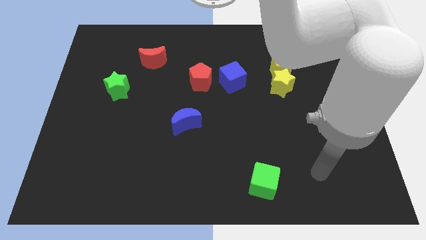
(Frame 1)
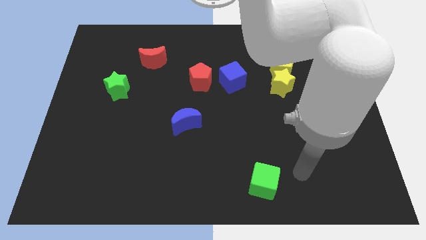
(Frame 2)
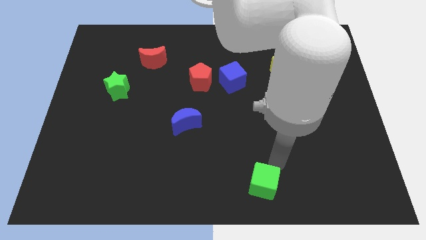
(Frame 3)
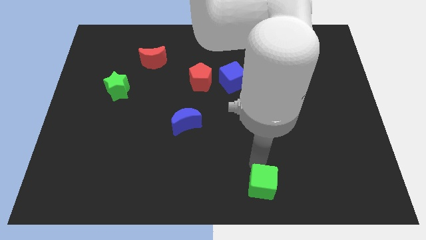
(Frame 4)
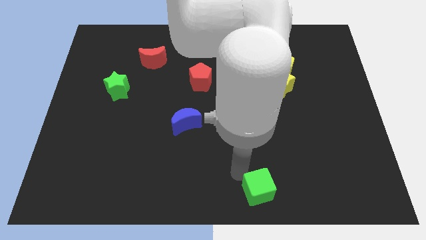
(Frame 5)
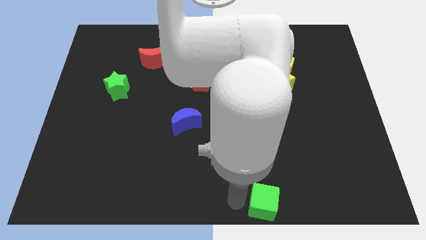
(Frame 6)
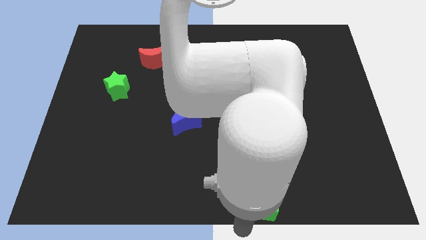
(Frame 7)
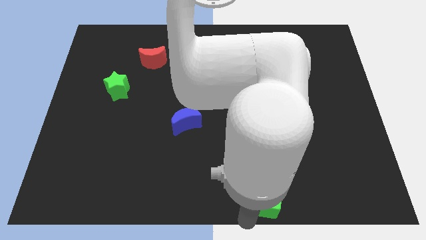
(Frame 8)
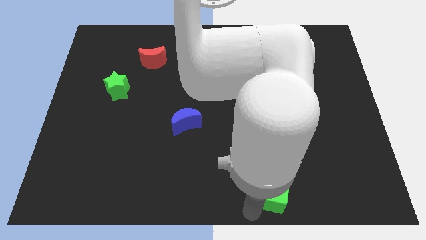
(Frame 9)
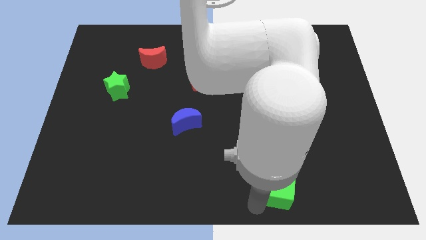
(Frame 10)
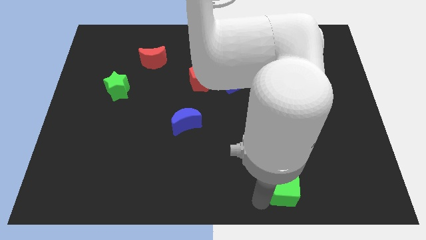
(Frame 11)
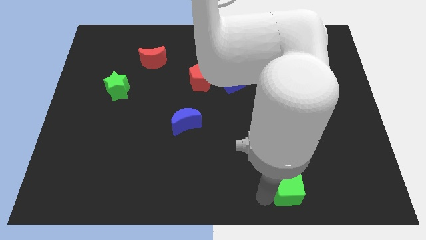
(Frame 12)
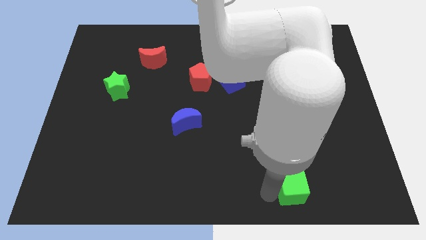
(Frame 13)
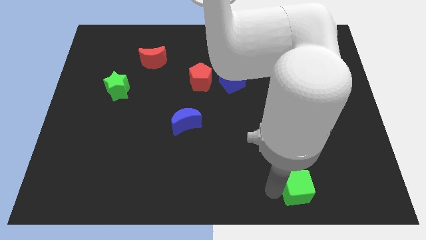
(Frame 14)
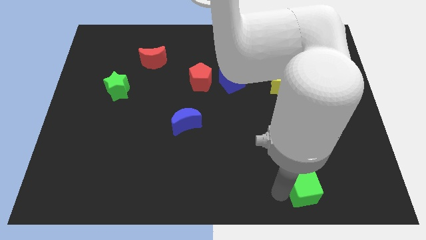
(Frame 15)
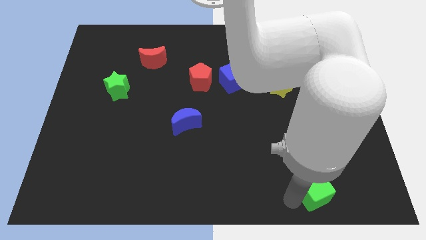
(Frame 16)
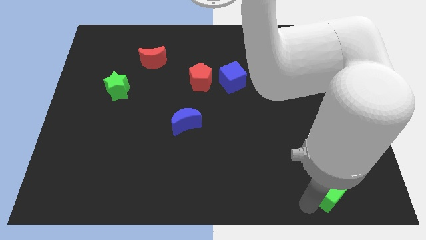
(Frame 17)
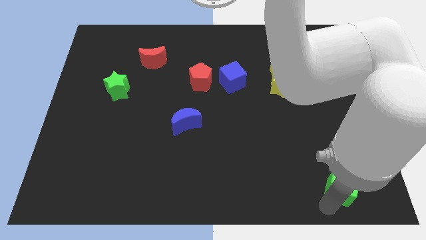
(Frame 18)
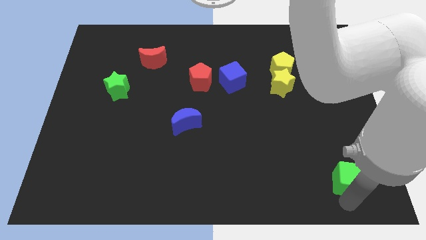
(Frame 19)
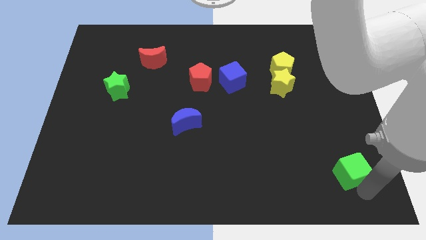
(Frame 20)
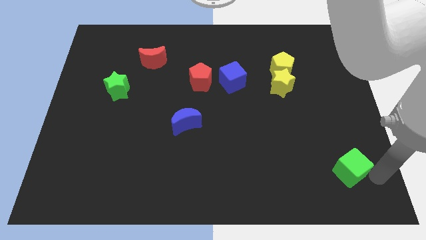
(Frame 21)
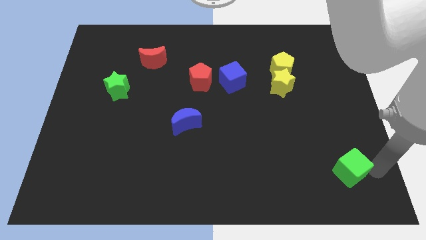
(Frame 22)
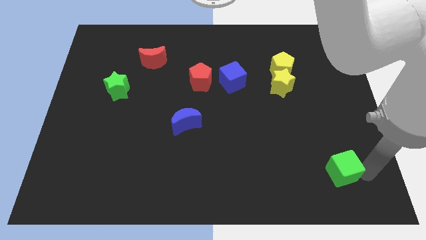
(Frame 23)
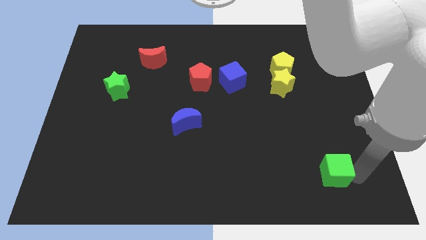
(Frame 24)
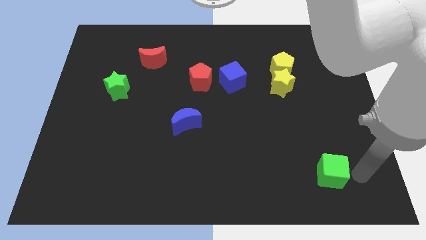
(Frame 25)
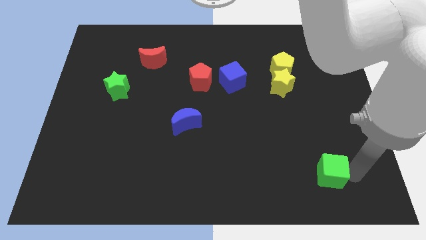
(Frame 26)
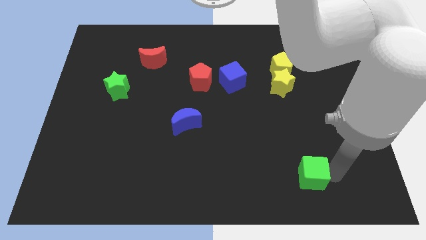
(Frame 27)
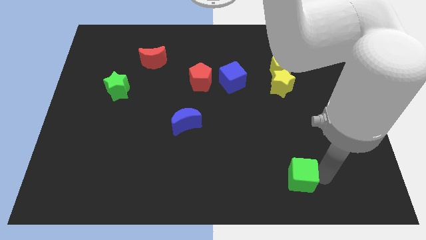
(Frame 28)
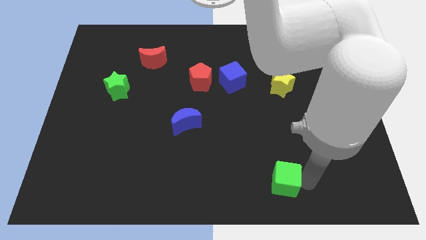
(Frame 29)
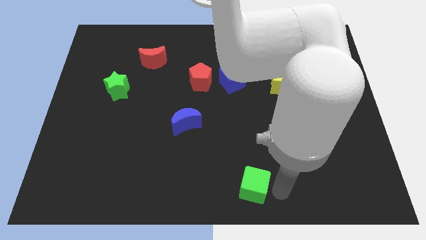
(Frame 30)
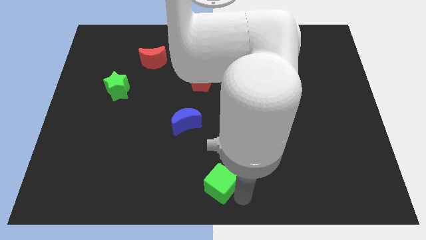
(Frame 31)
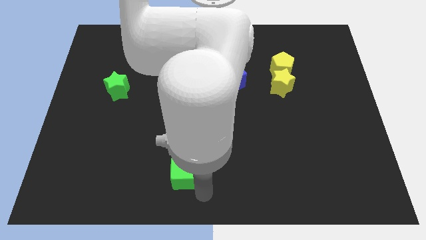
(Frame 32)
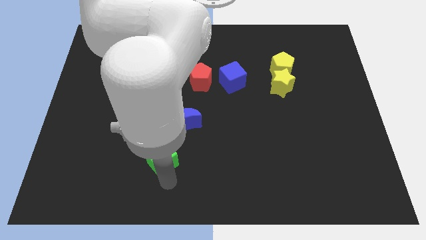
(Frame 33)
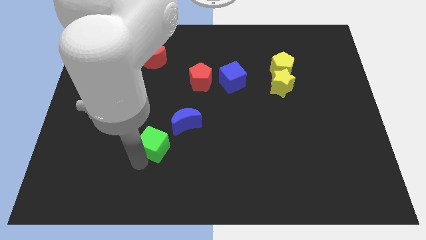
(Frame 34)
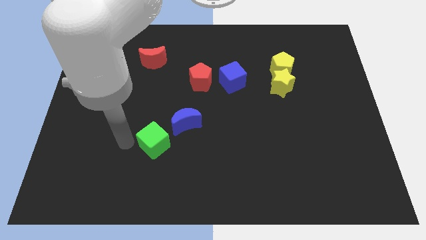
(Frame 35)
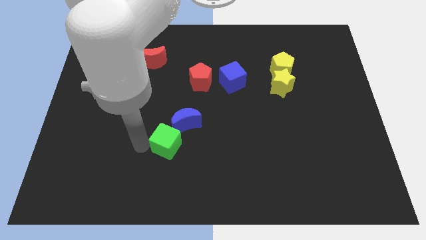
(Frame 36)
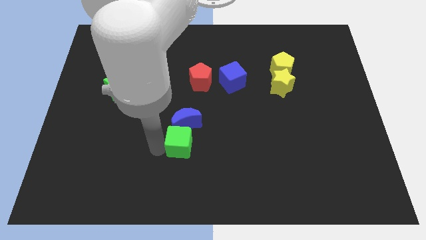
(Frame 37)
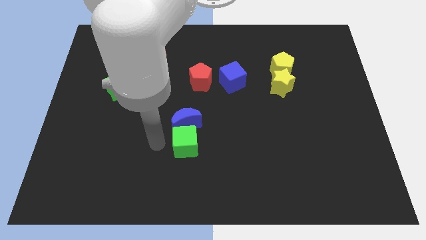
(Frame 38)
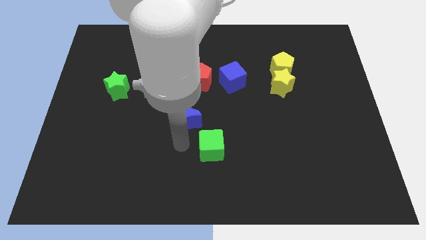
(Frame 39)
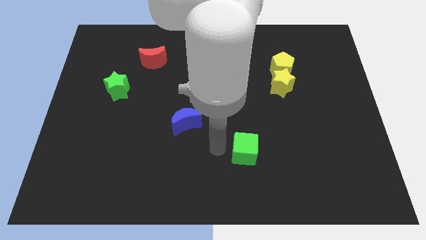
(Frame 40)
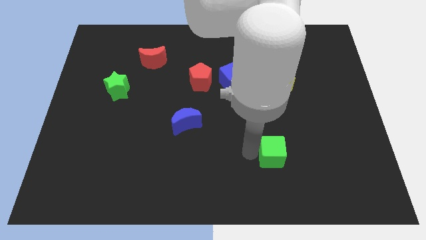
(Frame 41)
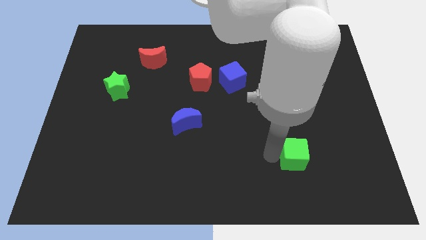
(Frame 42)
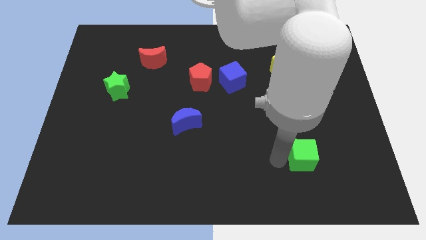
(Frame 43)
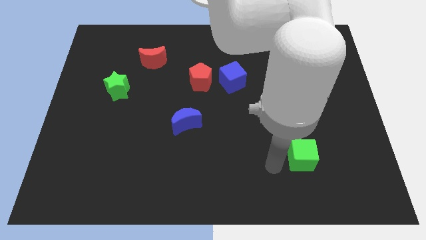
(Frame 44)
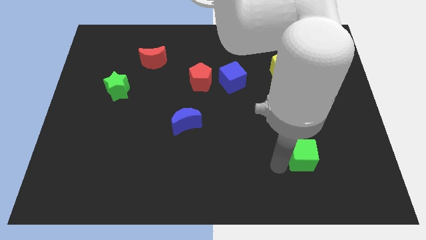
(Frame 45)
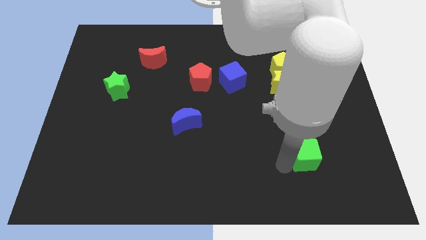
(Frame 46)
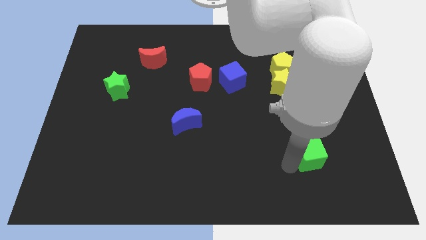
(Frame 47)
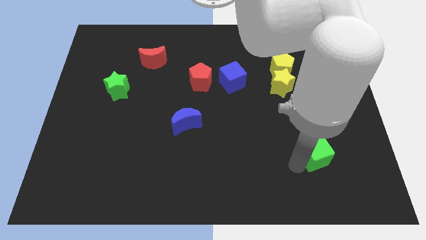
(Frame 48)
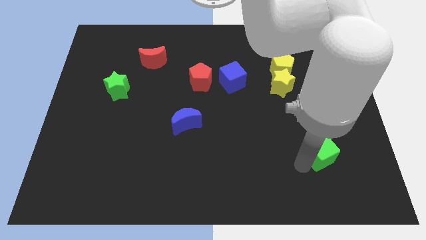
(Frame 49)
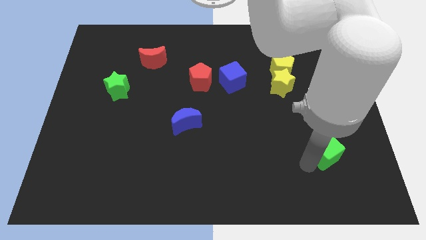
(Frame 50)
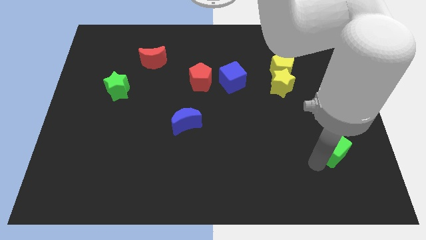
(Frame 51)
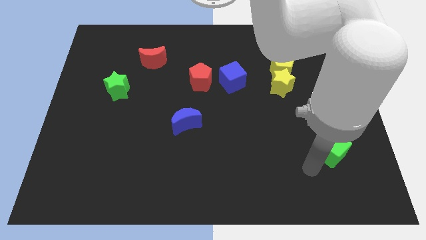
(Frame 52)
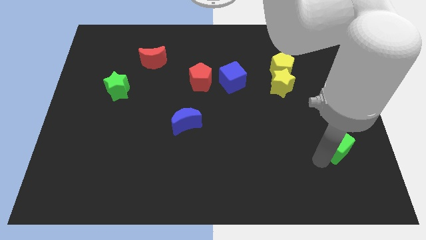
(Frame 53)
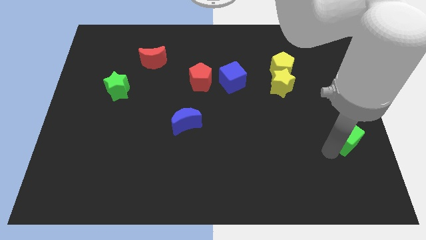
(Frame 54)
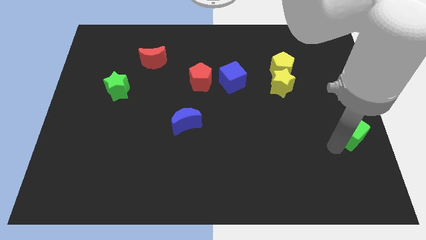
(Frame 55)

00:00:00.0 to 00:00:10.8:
put the green cube to the right side of the board

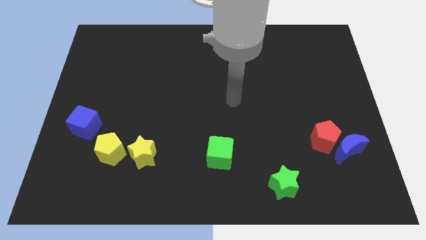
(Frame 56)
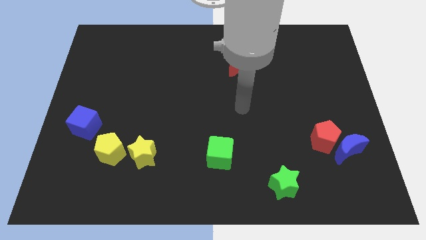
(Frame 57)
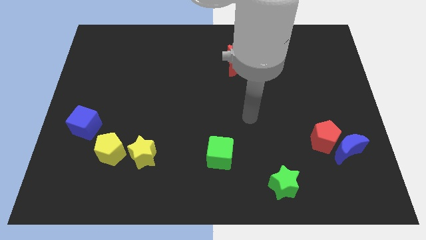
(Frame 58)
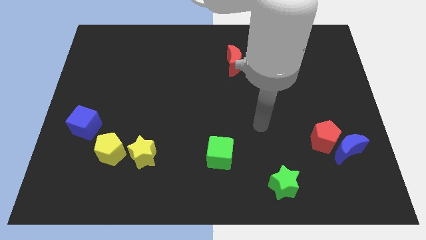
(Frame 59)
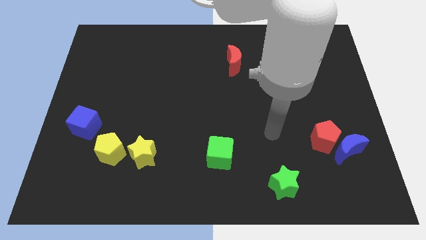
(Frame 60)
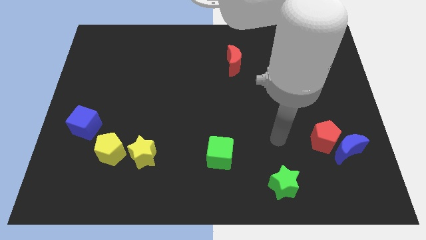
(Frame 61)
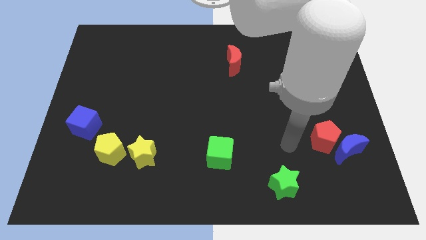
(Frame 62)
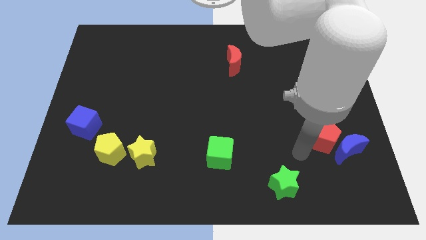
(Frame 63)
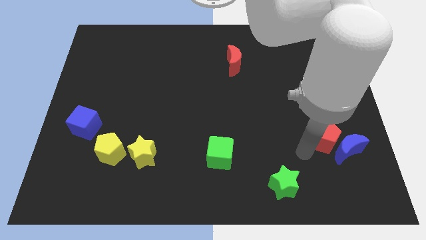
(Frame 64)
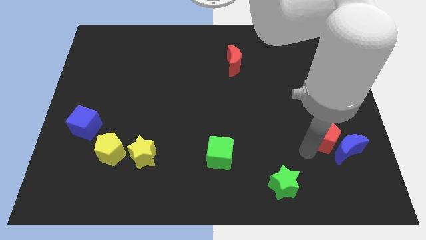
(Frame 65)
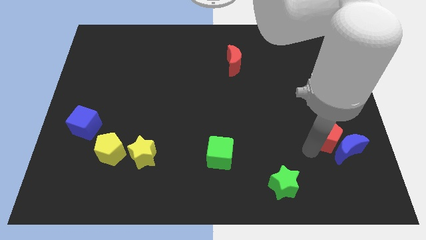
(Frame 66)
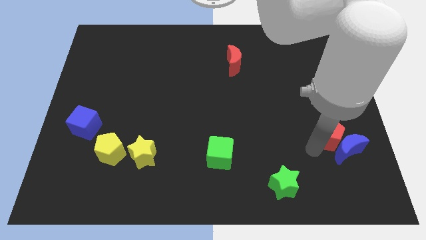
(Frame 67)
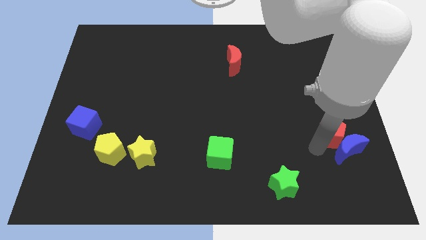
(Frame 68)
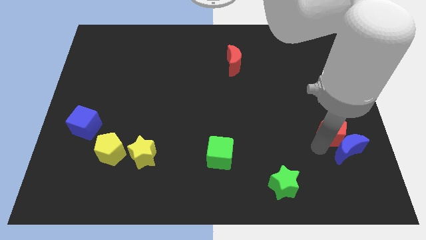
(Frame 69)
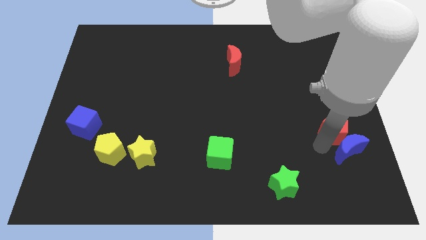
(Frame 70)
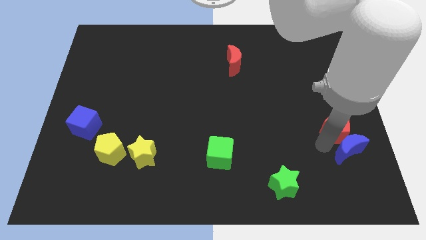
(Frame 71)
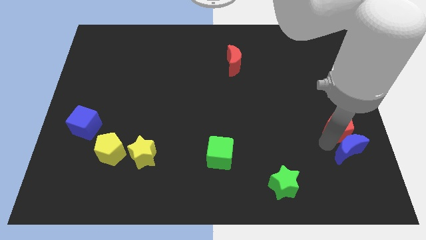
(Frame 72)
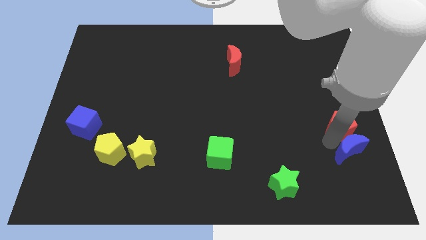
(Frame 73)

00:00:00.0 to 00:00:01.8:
put the red pentagon to the right side
